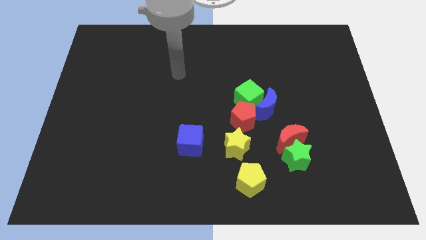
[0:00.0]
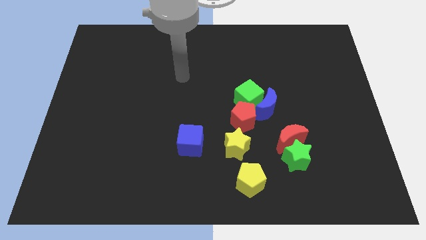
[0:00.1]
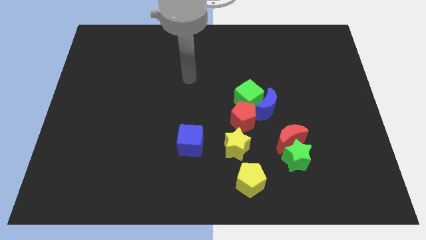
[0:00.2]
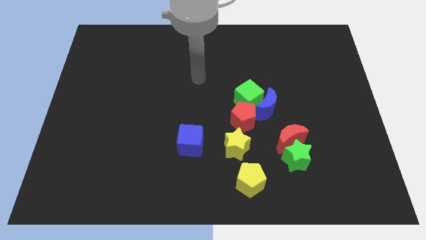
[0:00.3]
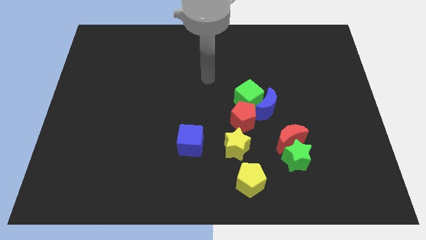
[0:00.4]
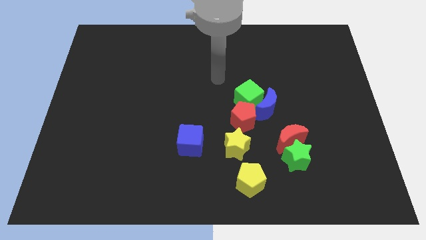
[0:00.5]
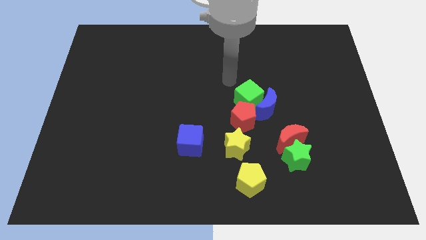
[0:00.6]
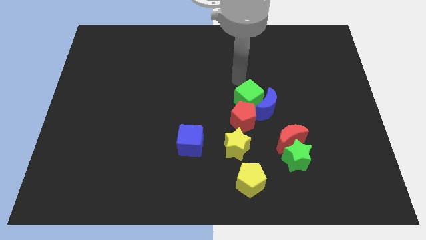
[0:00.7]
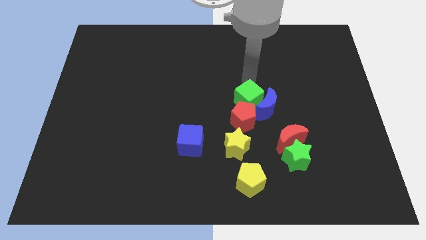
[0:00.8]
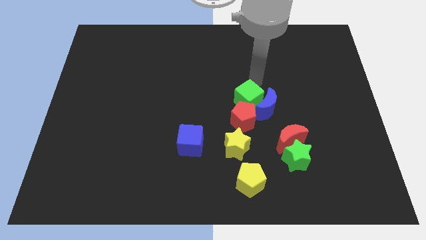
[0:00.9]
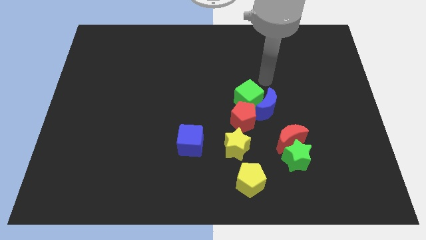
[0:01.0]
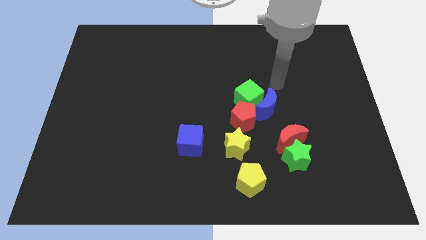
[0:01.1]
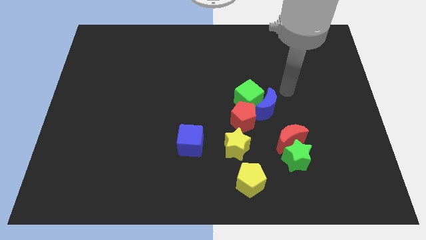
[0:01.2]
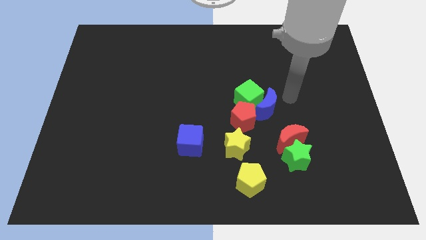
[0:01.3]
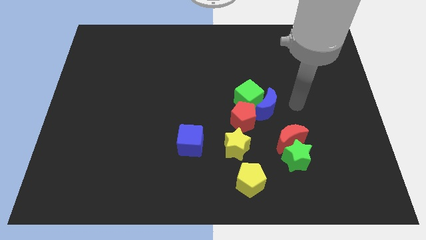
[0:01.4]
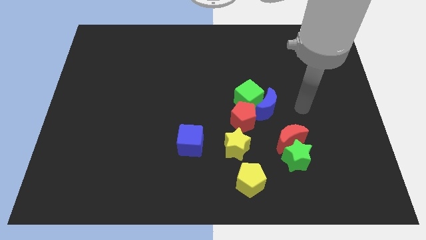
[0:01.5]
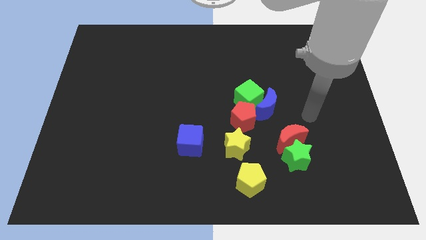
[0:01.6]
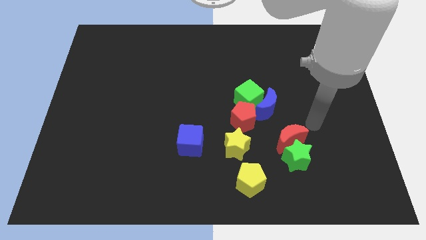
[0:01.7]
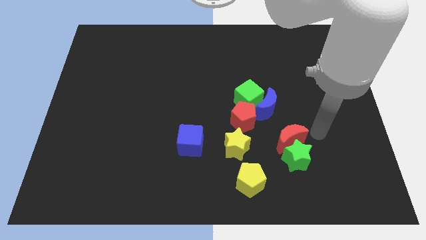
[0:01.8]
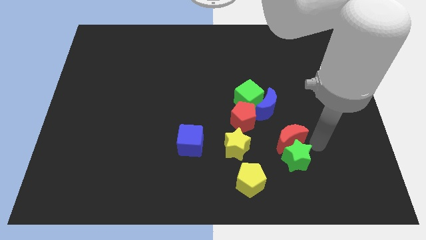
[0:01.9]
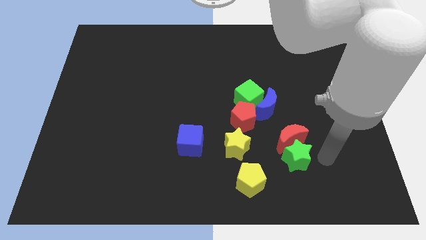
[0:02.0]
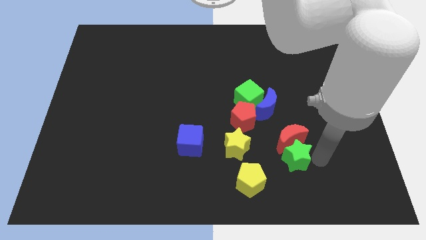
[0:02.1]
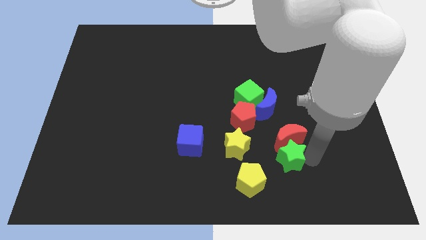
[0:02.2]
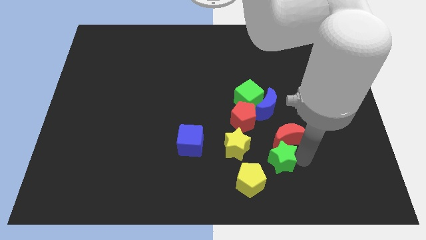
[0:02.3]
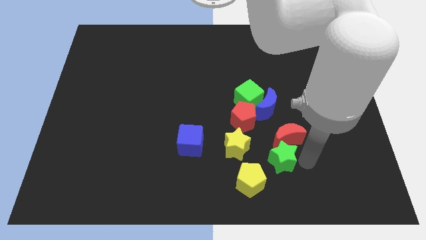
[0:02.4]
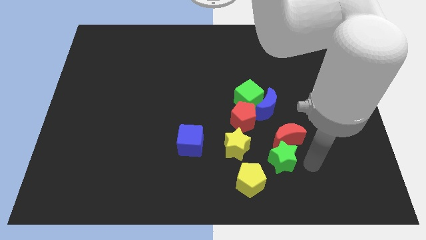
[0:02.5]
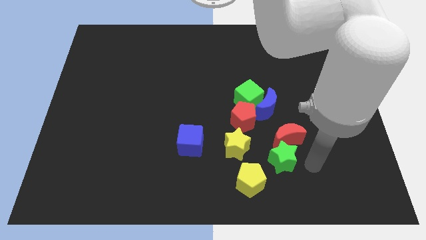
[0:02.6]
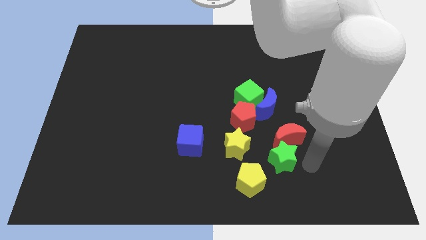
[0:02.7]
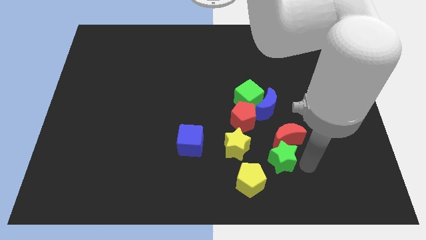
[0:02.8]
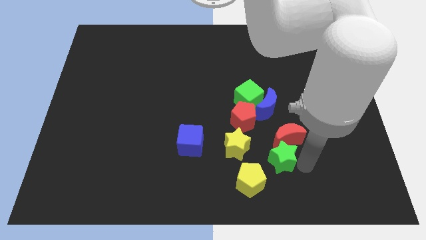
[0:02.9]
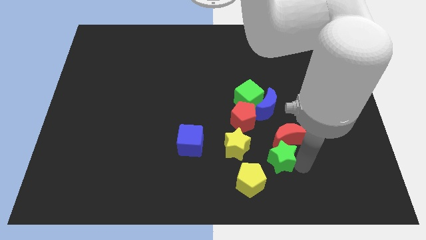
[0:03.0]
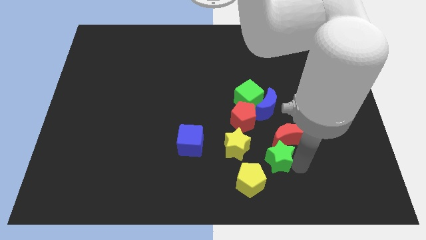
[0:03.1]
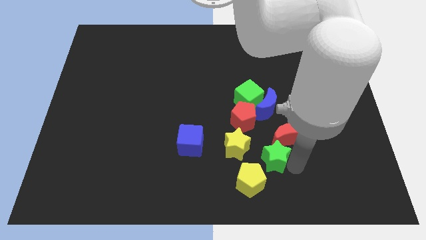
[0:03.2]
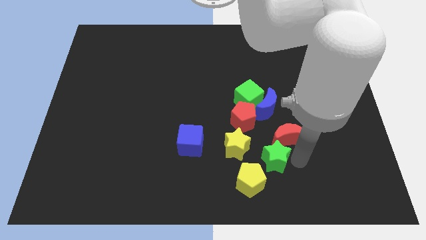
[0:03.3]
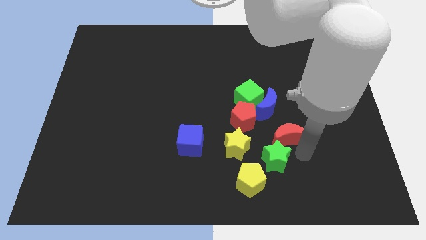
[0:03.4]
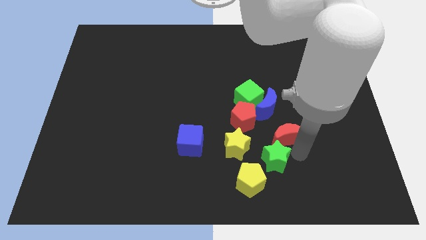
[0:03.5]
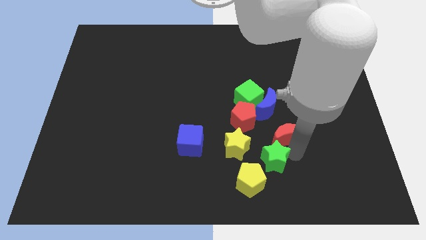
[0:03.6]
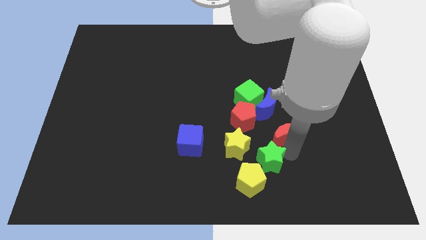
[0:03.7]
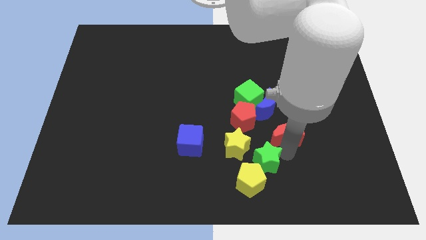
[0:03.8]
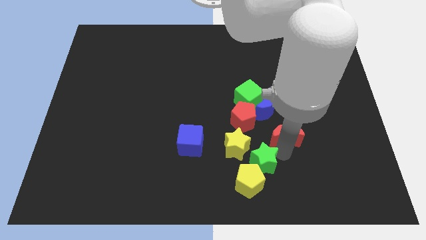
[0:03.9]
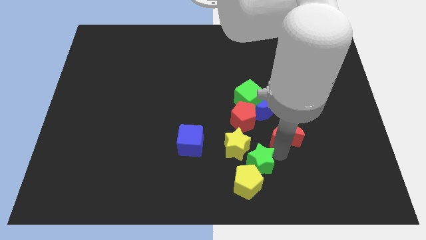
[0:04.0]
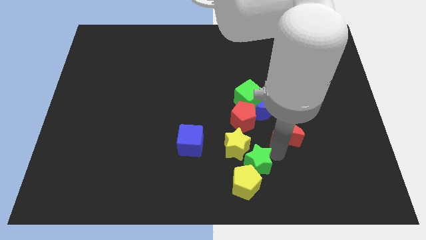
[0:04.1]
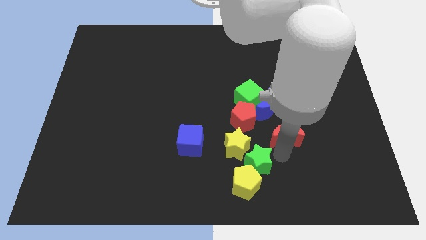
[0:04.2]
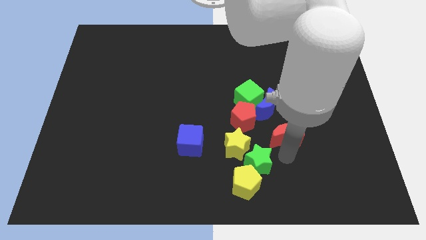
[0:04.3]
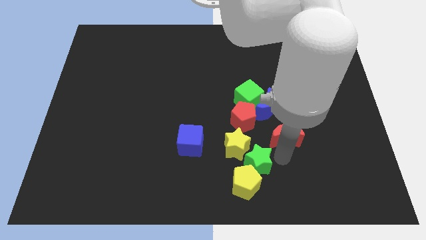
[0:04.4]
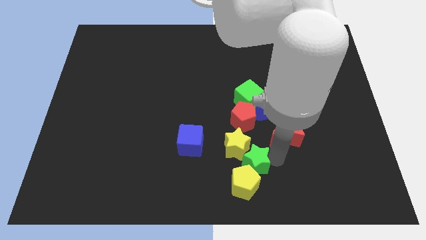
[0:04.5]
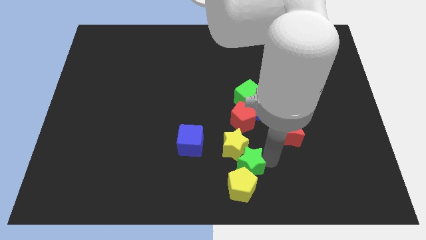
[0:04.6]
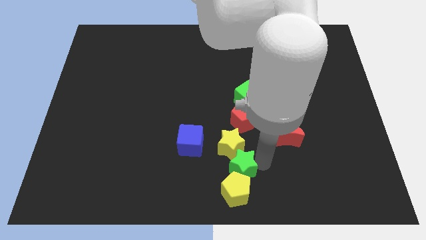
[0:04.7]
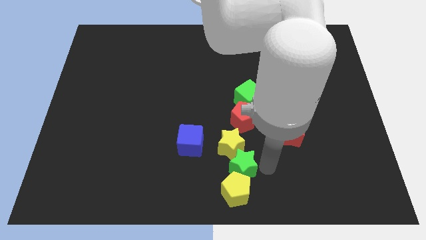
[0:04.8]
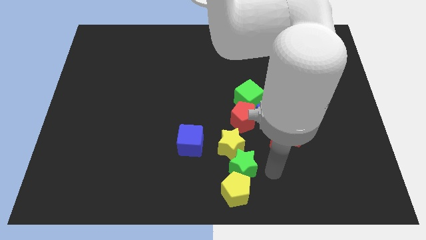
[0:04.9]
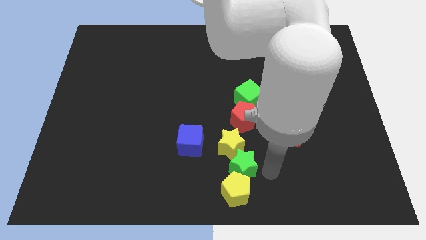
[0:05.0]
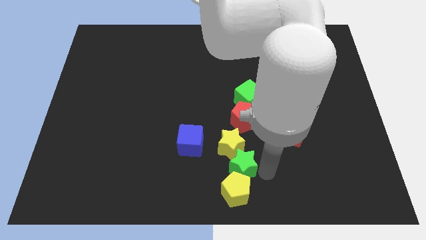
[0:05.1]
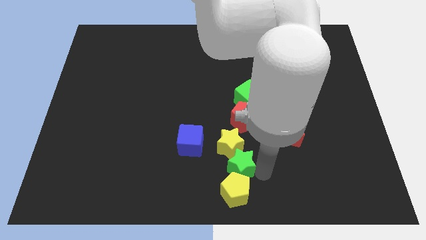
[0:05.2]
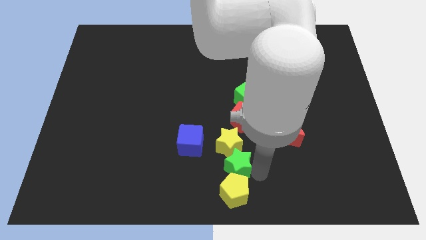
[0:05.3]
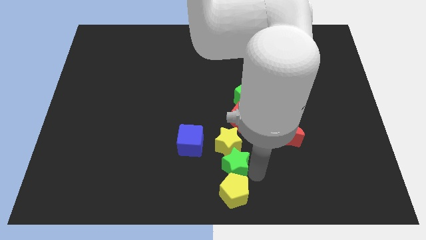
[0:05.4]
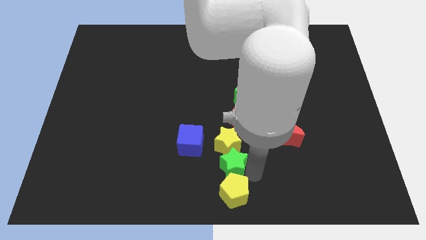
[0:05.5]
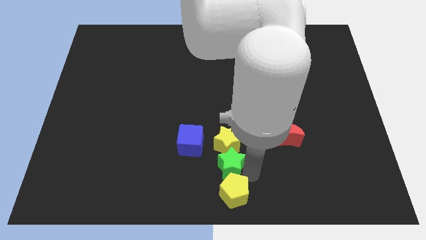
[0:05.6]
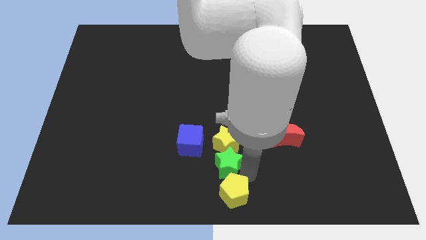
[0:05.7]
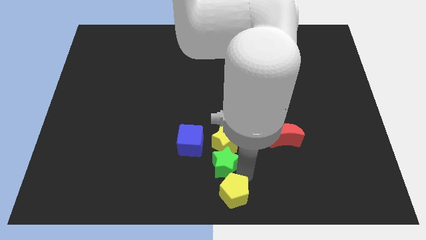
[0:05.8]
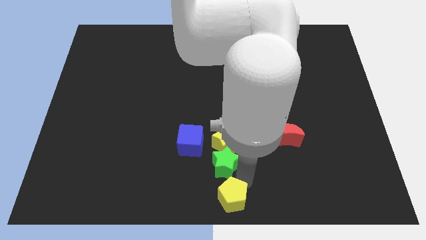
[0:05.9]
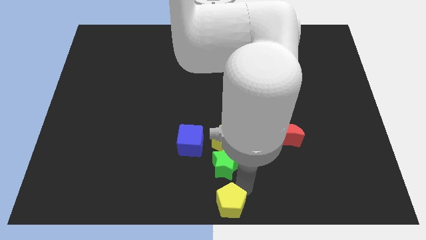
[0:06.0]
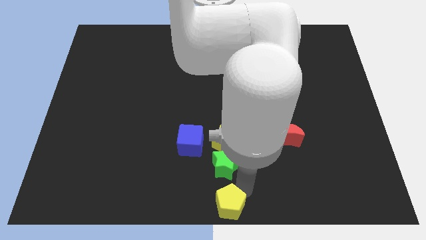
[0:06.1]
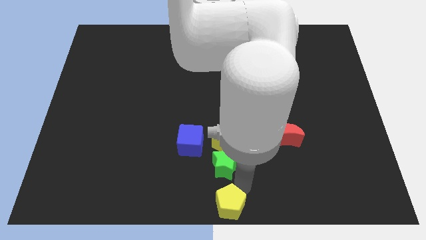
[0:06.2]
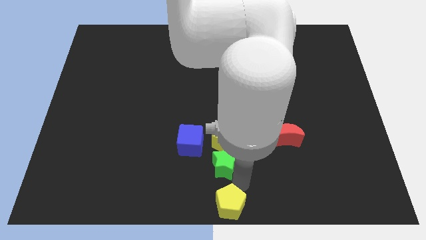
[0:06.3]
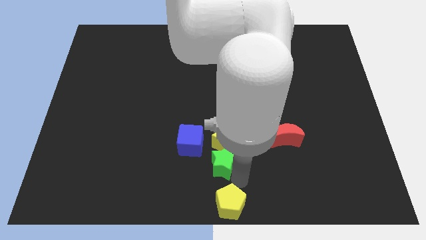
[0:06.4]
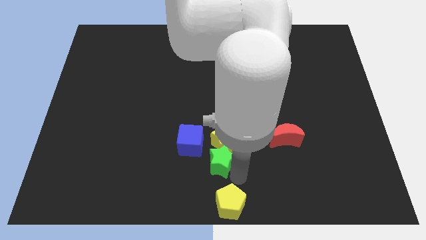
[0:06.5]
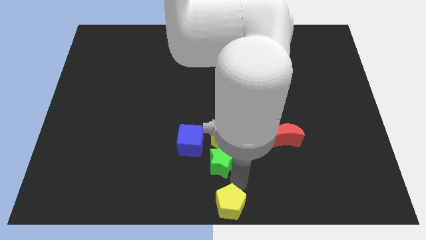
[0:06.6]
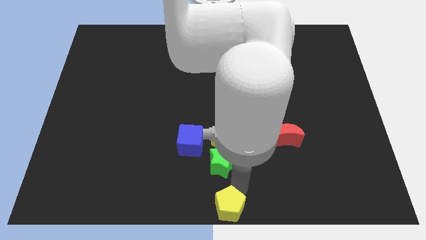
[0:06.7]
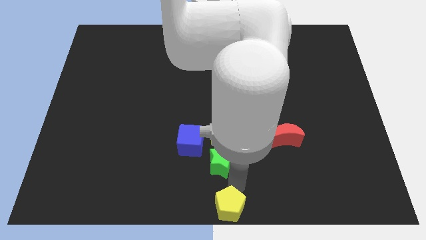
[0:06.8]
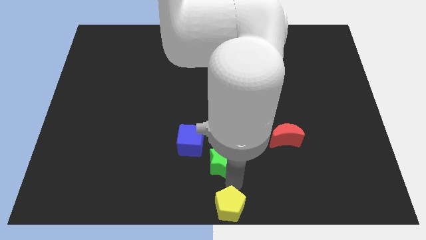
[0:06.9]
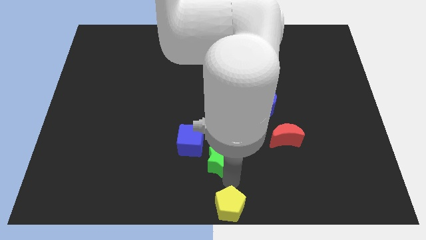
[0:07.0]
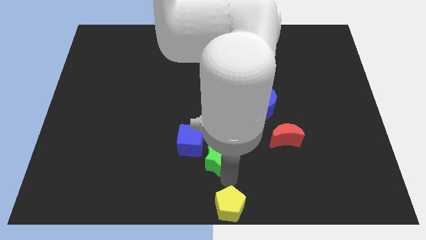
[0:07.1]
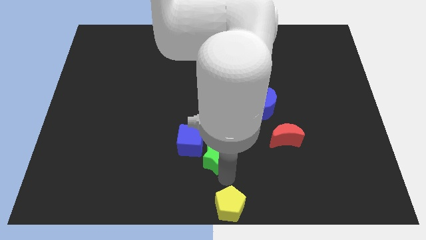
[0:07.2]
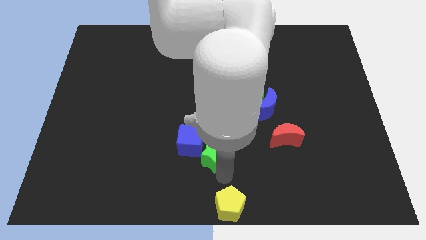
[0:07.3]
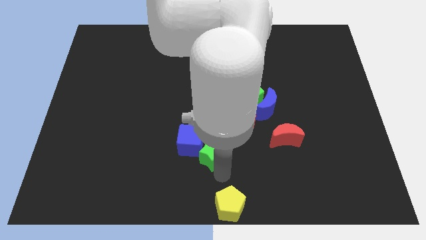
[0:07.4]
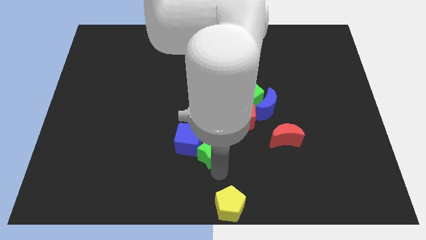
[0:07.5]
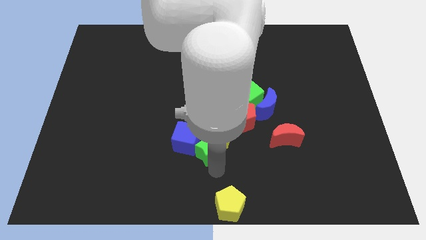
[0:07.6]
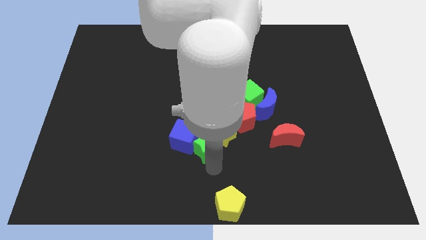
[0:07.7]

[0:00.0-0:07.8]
move the green star a bit up and to the left diagonally

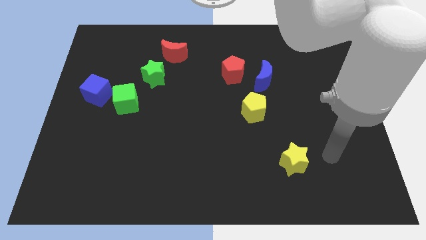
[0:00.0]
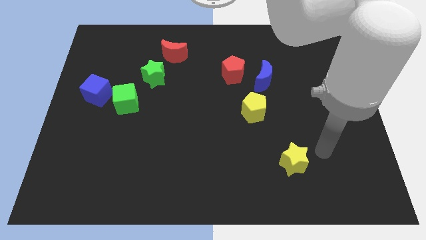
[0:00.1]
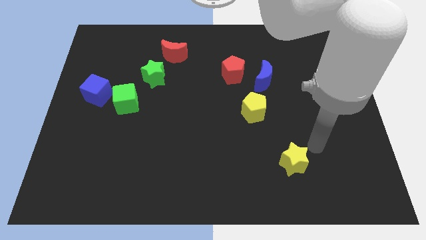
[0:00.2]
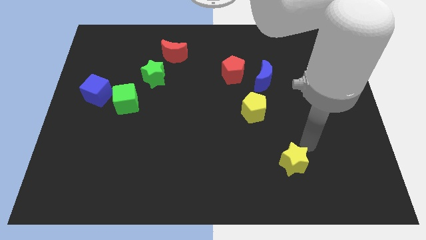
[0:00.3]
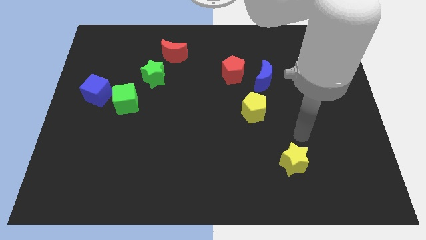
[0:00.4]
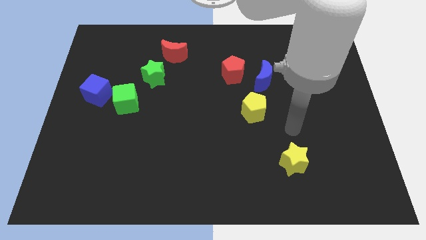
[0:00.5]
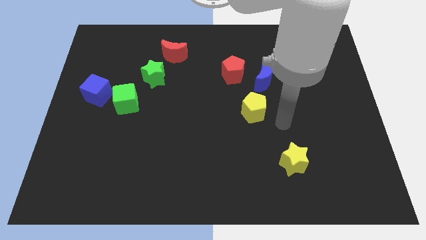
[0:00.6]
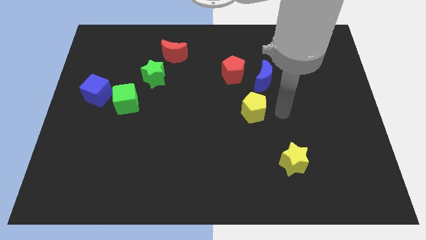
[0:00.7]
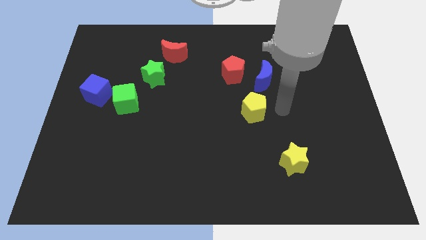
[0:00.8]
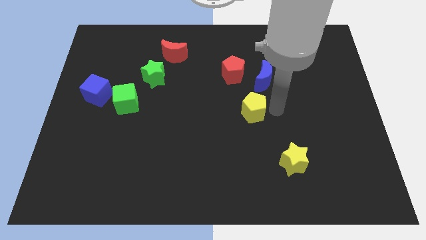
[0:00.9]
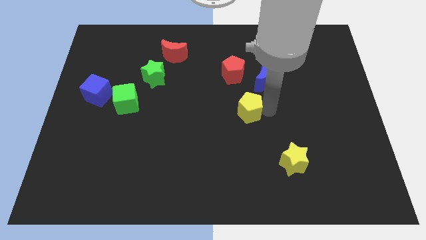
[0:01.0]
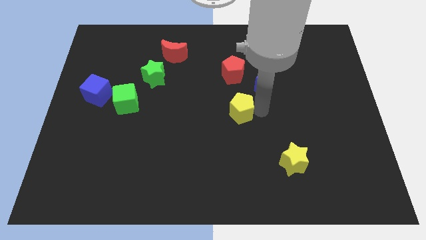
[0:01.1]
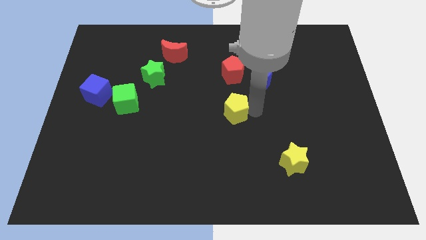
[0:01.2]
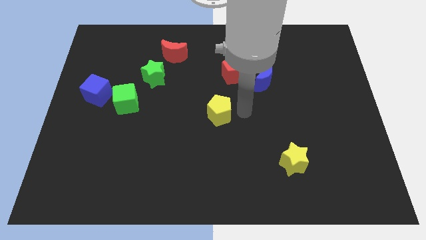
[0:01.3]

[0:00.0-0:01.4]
move the yellow pentagon to the left a bit
